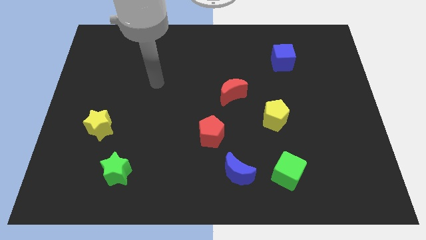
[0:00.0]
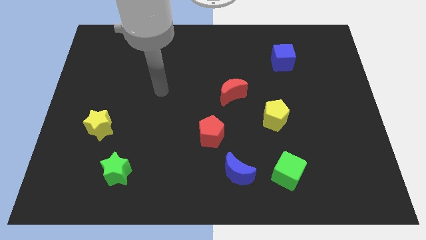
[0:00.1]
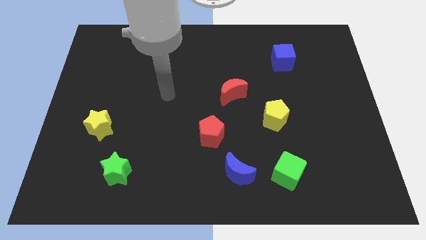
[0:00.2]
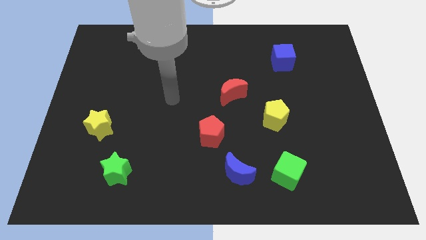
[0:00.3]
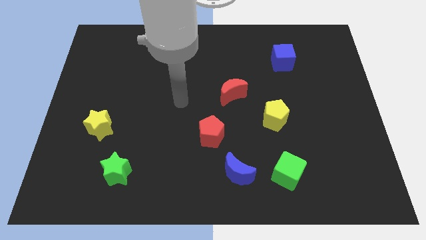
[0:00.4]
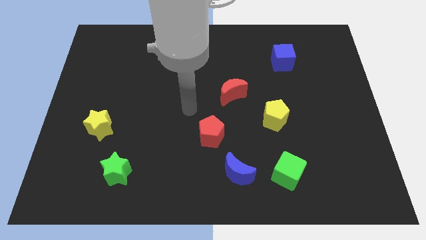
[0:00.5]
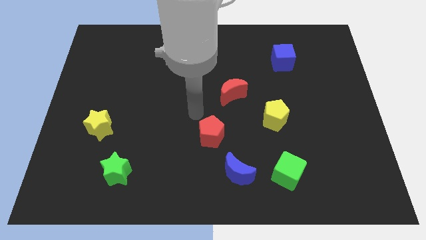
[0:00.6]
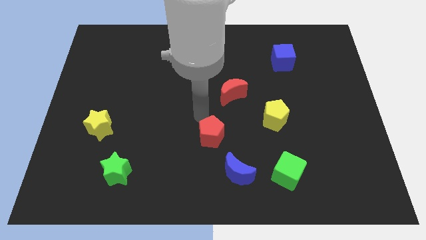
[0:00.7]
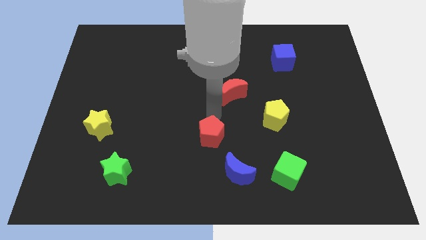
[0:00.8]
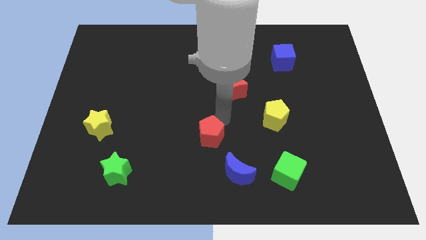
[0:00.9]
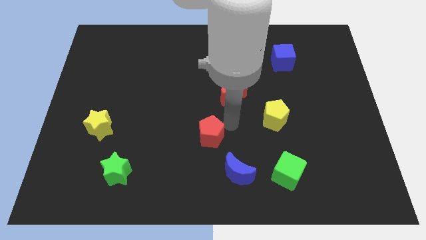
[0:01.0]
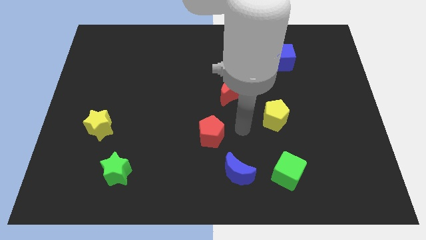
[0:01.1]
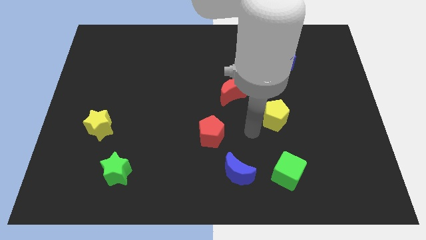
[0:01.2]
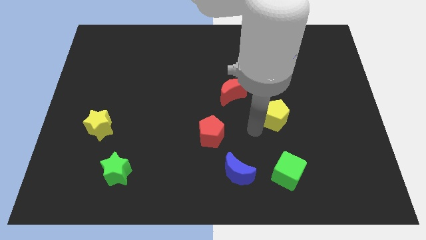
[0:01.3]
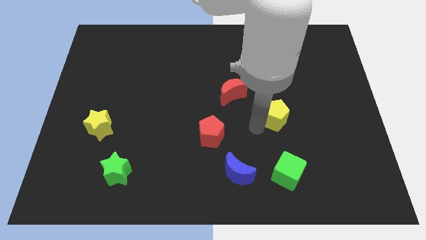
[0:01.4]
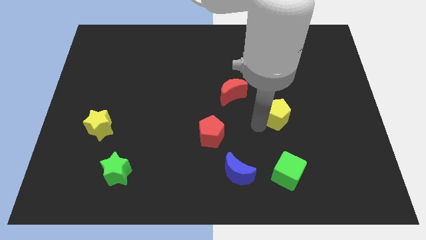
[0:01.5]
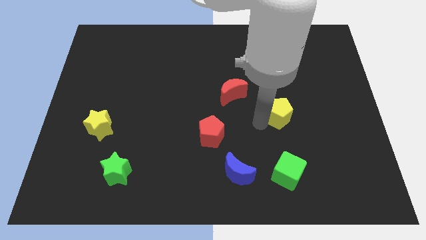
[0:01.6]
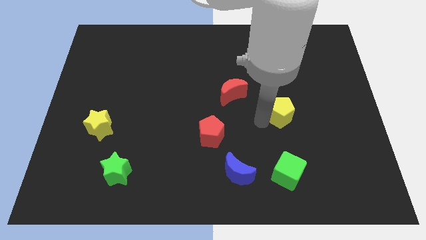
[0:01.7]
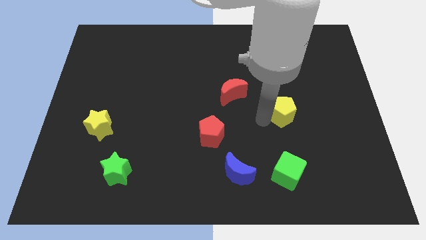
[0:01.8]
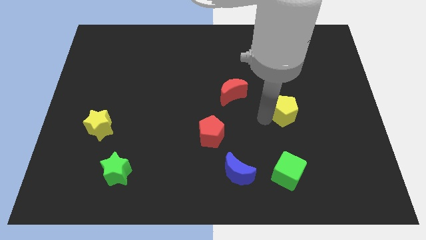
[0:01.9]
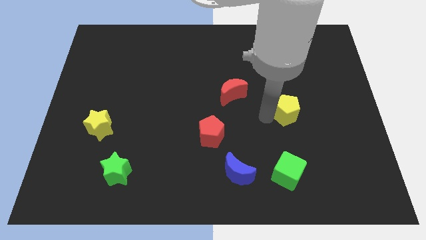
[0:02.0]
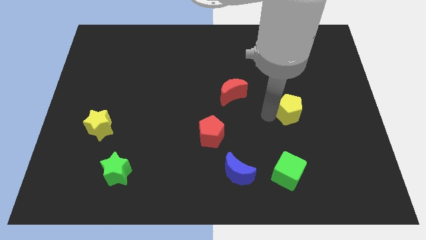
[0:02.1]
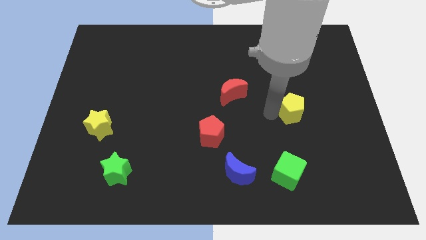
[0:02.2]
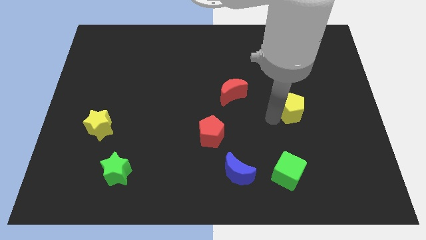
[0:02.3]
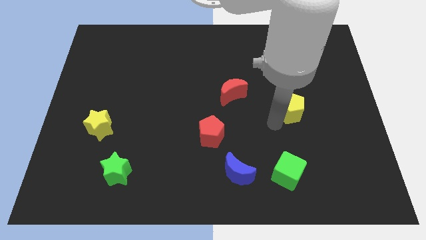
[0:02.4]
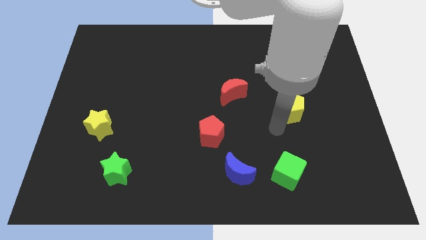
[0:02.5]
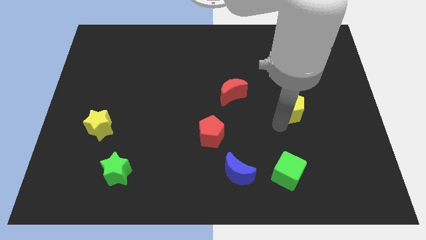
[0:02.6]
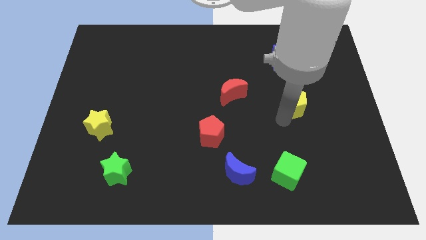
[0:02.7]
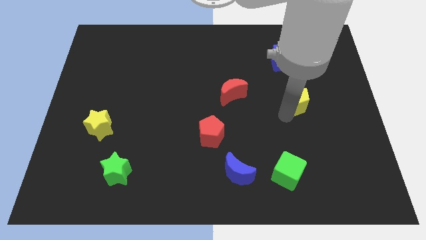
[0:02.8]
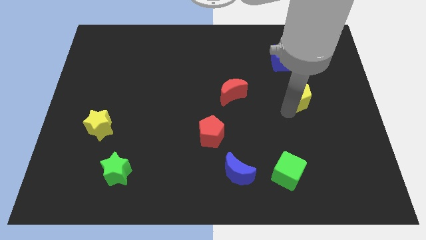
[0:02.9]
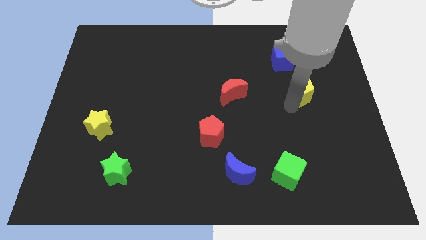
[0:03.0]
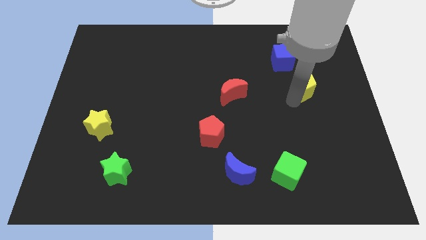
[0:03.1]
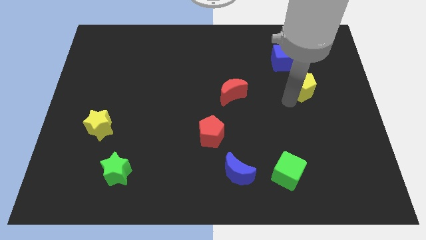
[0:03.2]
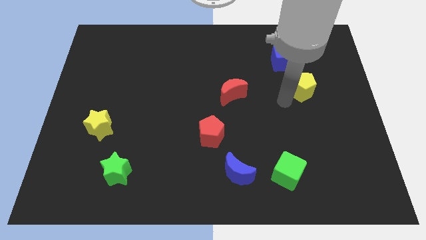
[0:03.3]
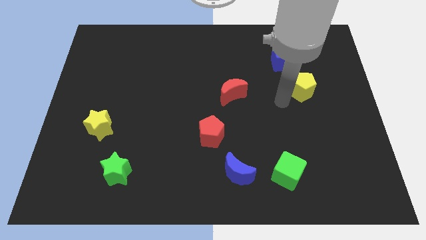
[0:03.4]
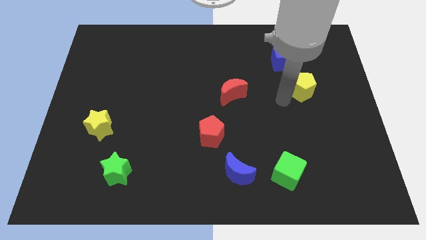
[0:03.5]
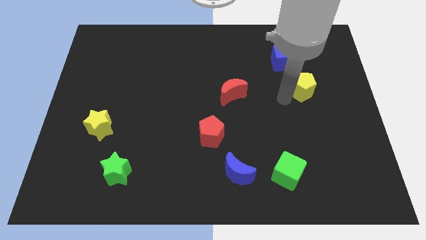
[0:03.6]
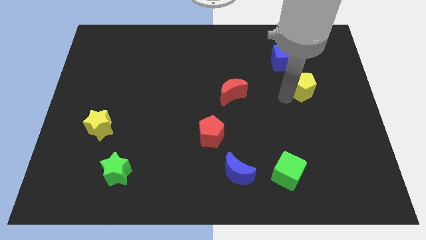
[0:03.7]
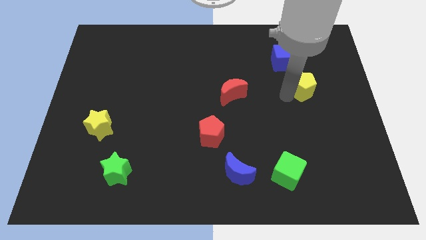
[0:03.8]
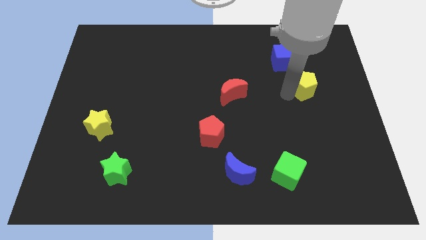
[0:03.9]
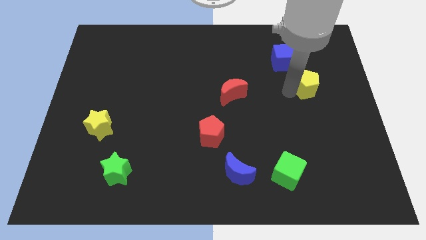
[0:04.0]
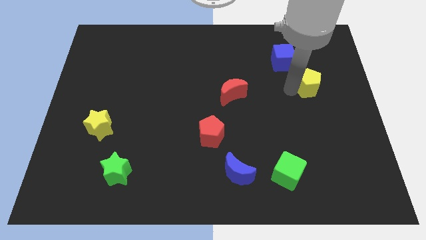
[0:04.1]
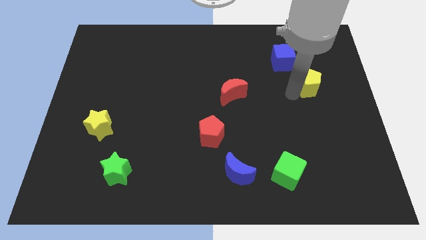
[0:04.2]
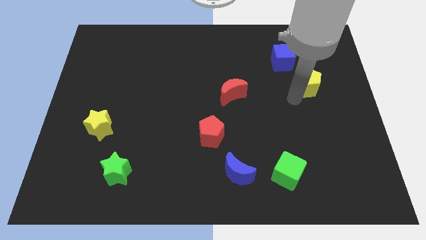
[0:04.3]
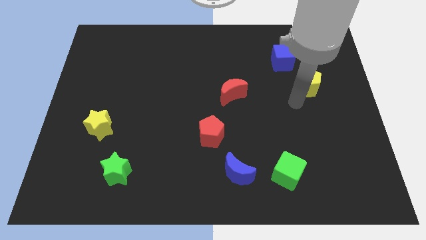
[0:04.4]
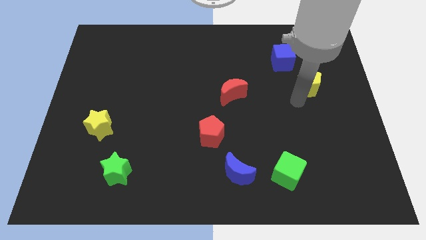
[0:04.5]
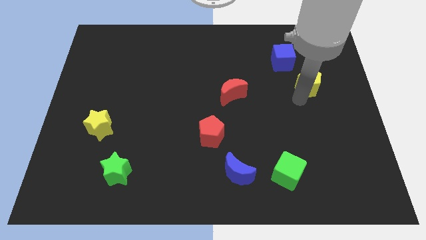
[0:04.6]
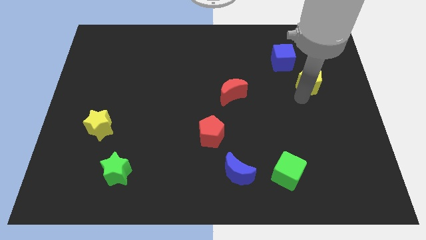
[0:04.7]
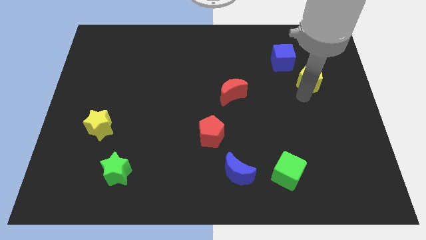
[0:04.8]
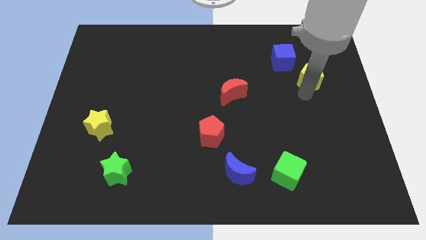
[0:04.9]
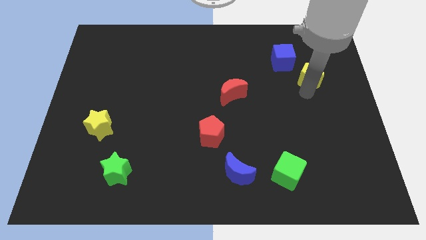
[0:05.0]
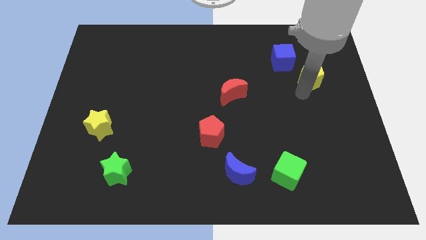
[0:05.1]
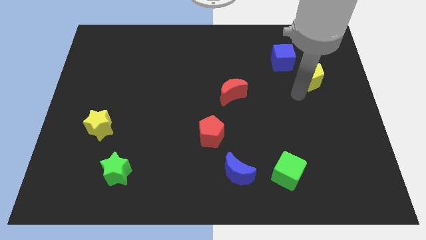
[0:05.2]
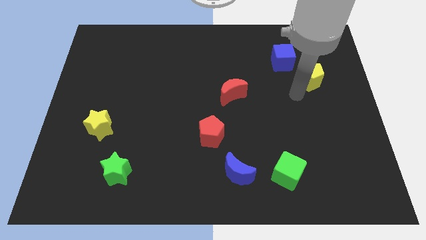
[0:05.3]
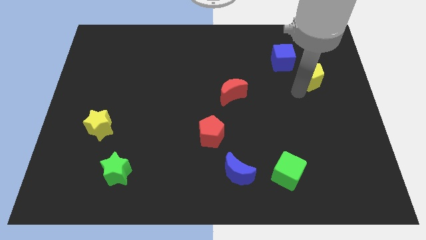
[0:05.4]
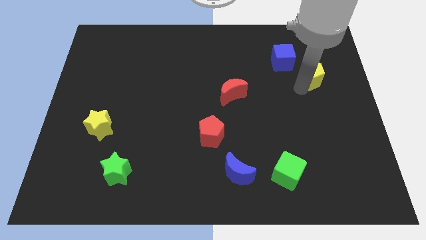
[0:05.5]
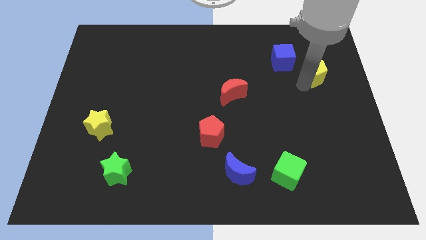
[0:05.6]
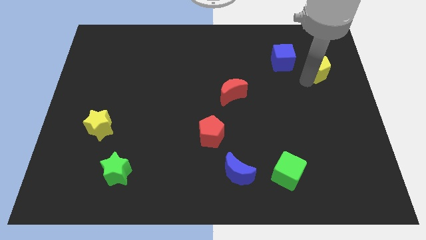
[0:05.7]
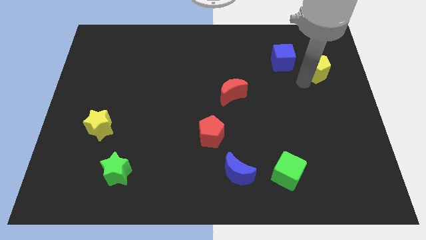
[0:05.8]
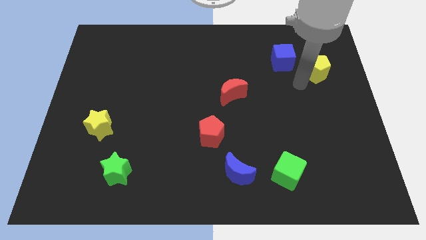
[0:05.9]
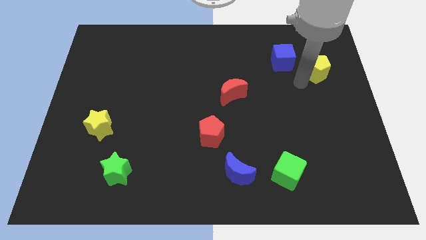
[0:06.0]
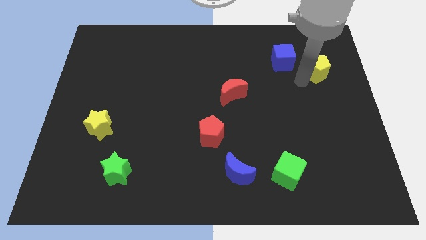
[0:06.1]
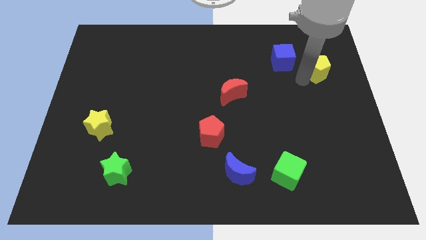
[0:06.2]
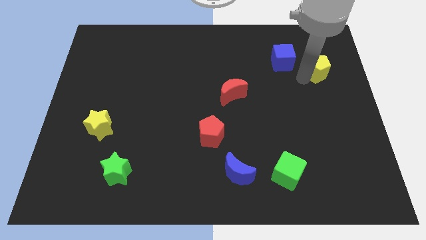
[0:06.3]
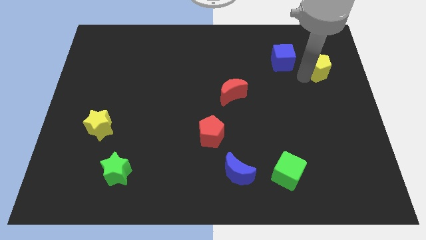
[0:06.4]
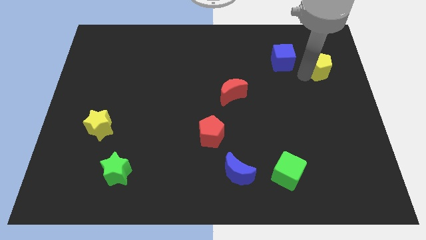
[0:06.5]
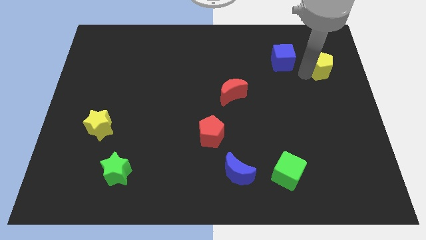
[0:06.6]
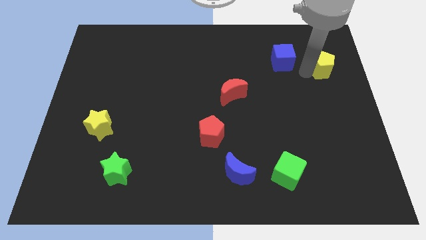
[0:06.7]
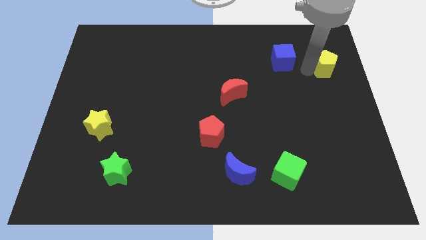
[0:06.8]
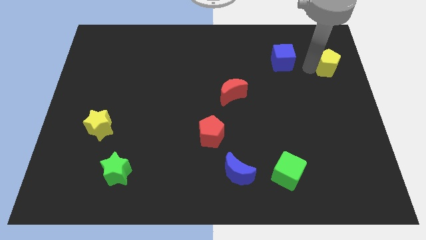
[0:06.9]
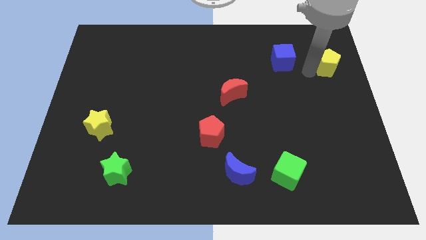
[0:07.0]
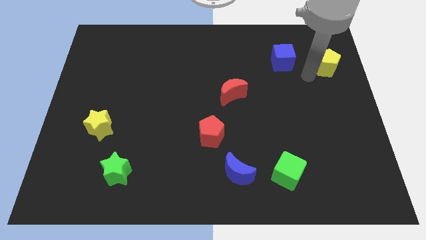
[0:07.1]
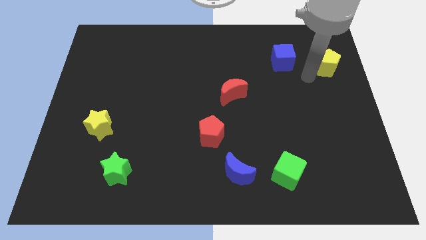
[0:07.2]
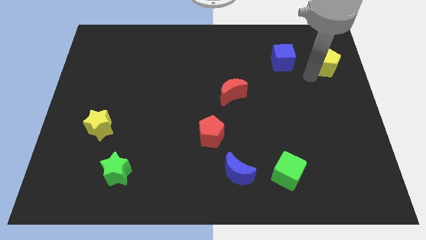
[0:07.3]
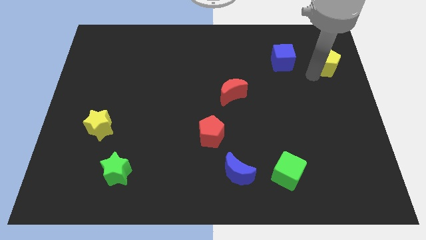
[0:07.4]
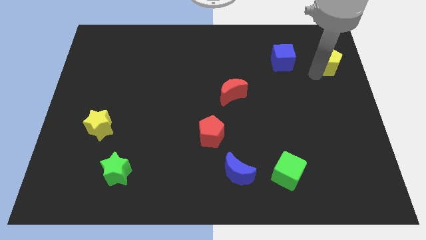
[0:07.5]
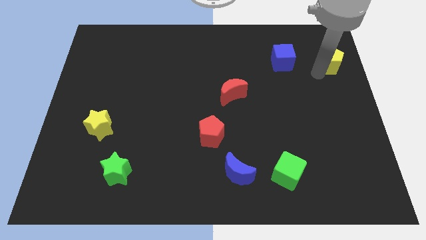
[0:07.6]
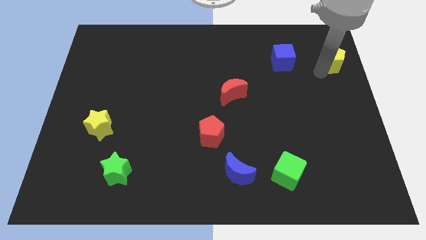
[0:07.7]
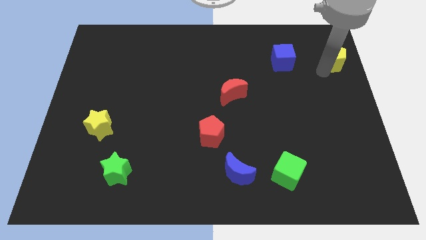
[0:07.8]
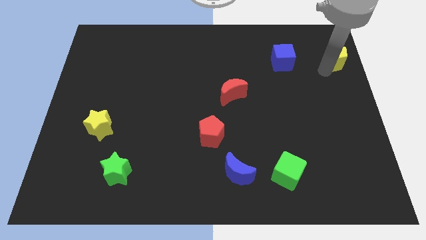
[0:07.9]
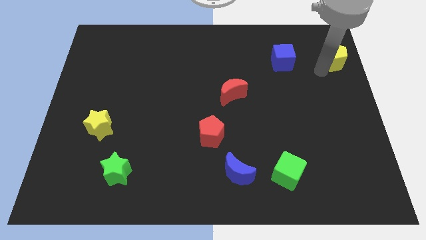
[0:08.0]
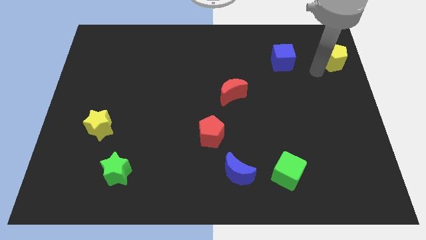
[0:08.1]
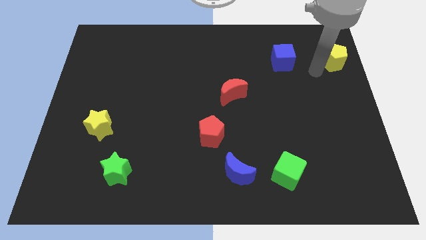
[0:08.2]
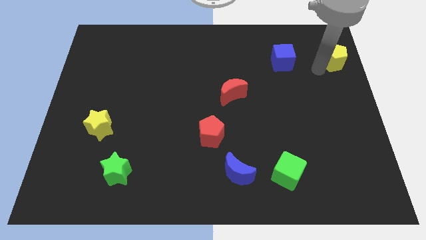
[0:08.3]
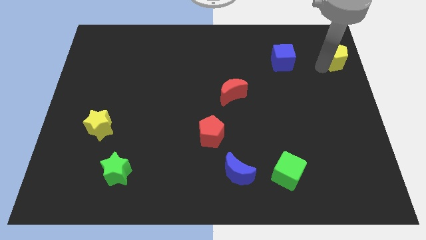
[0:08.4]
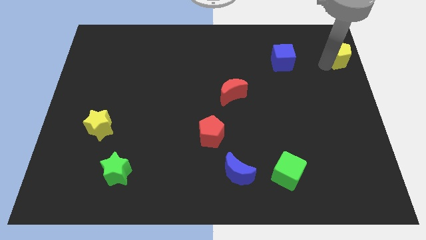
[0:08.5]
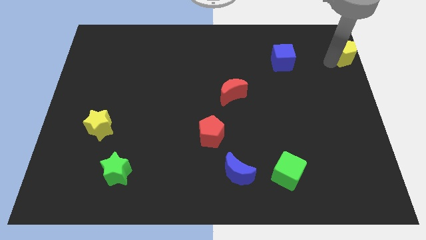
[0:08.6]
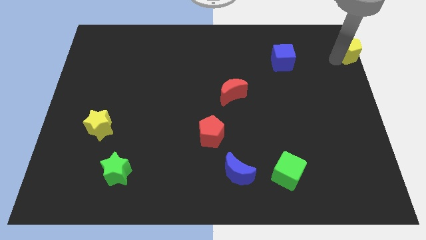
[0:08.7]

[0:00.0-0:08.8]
put the yellow pentagon to the top right
